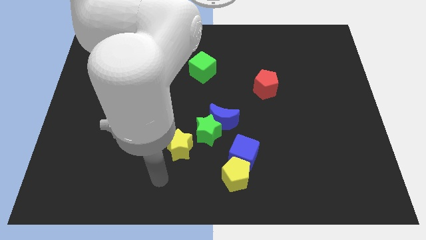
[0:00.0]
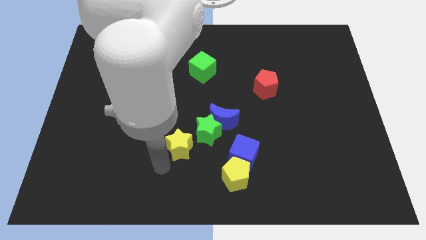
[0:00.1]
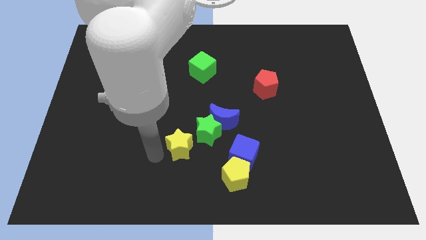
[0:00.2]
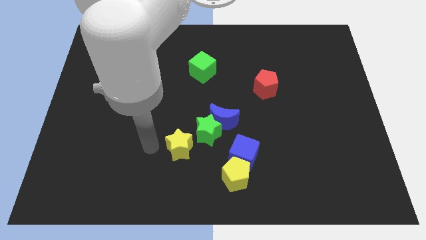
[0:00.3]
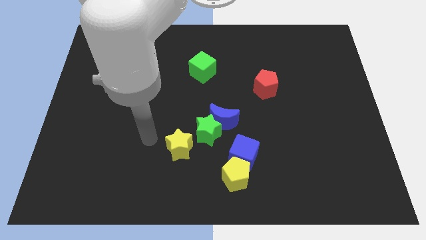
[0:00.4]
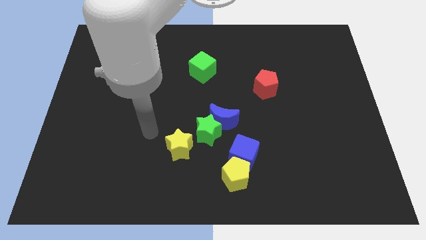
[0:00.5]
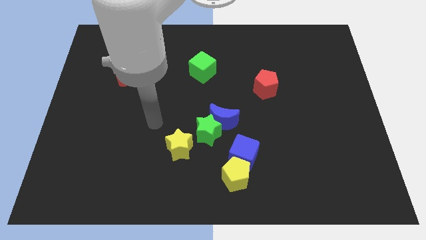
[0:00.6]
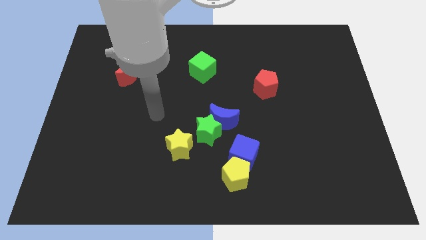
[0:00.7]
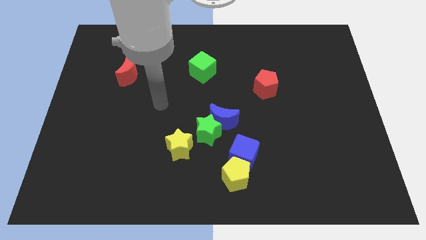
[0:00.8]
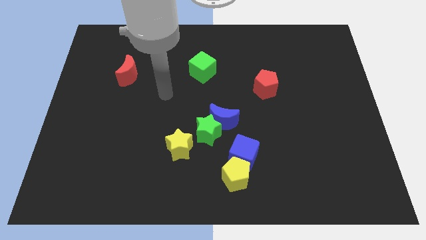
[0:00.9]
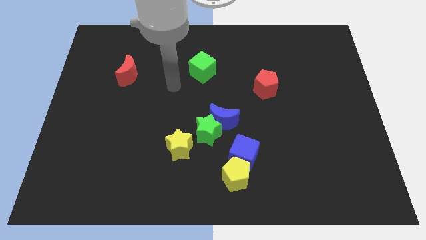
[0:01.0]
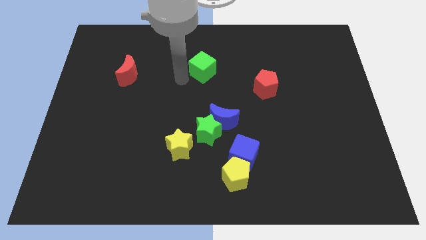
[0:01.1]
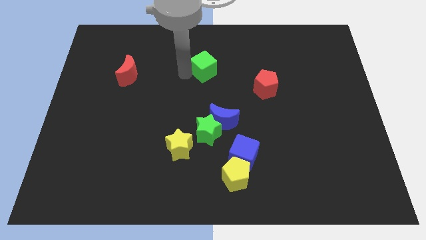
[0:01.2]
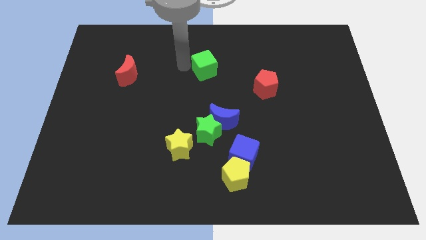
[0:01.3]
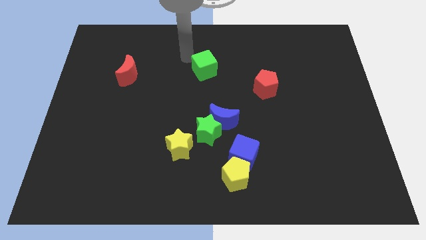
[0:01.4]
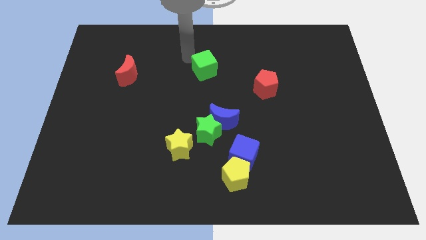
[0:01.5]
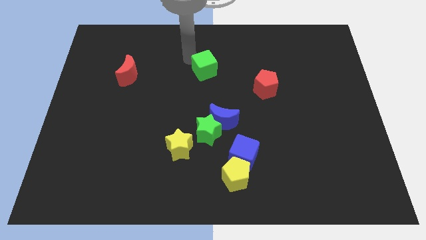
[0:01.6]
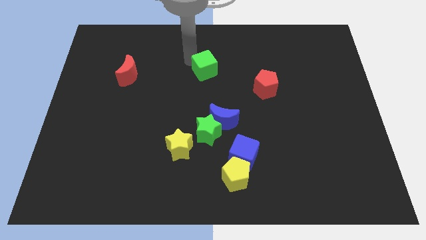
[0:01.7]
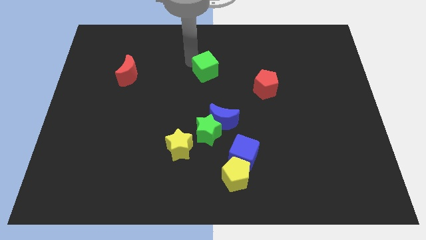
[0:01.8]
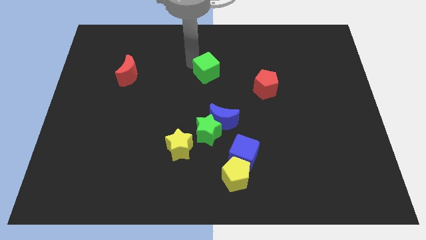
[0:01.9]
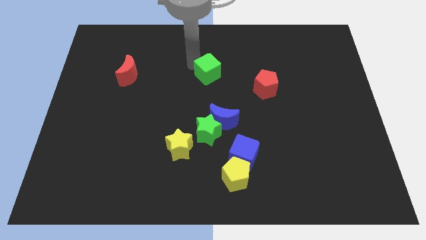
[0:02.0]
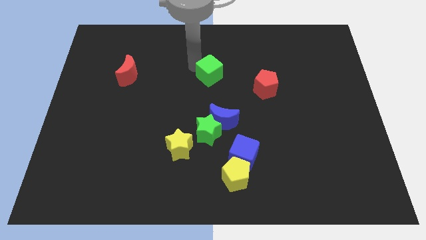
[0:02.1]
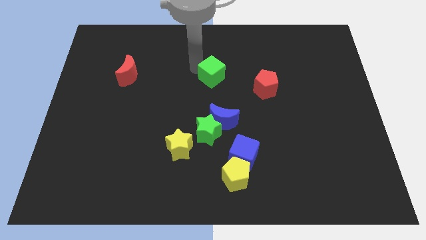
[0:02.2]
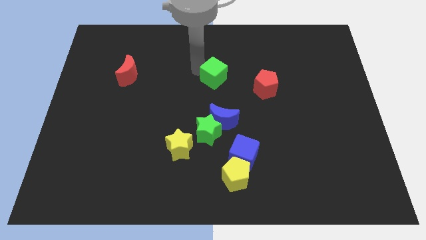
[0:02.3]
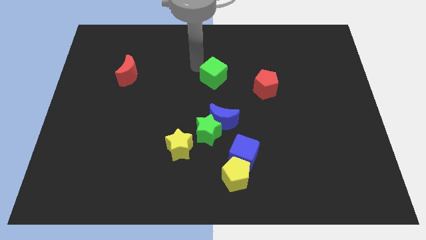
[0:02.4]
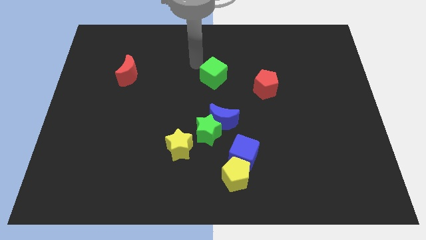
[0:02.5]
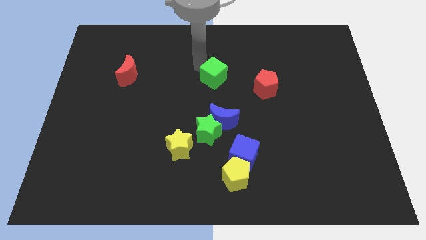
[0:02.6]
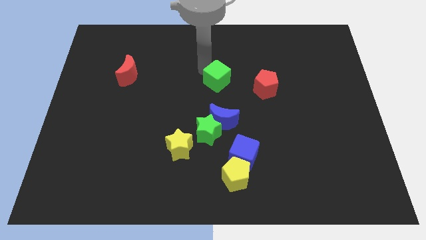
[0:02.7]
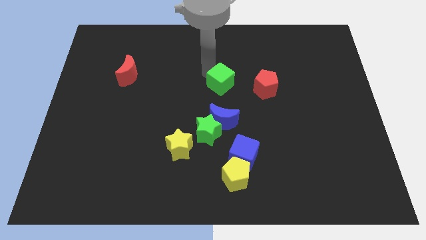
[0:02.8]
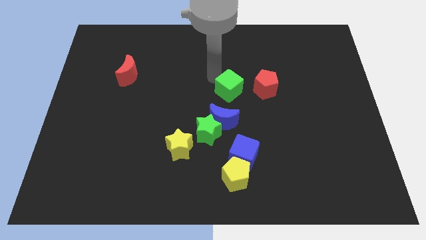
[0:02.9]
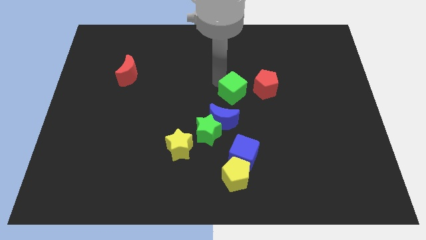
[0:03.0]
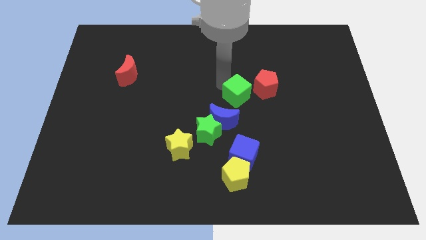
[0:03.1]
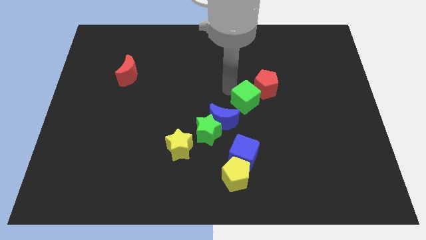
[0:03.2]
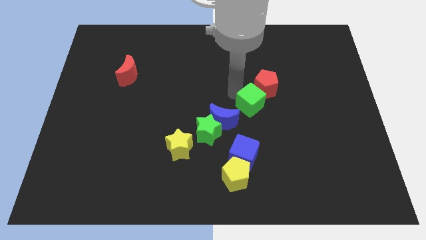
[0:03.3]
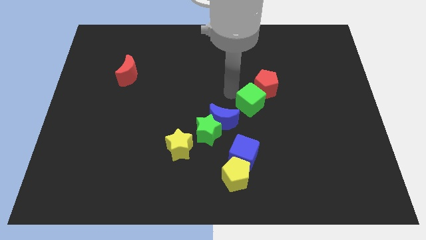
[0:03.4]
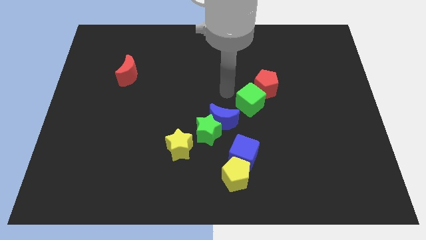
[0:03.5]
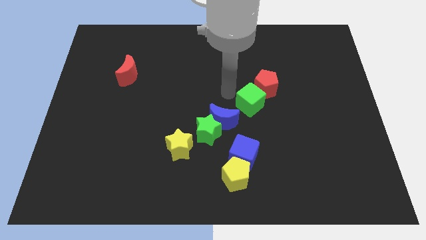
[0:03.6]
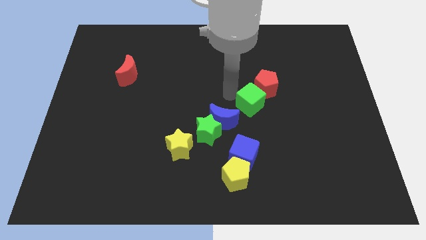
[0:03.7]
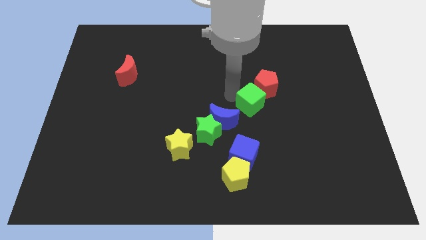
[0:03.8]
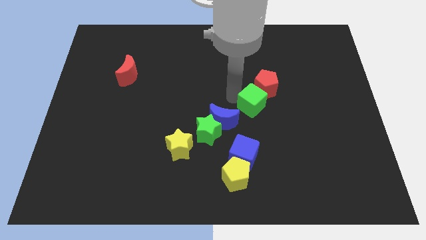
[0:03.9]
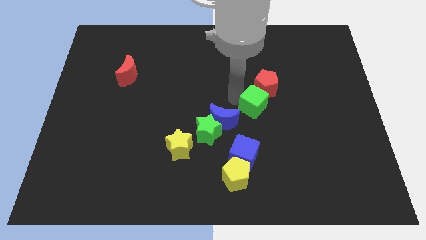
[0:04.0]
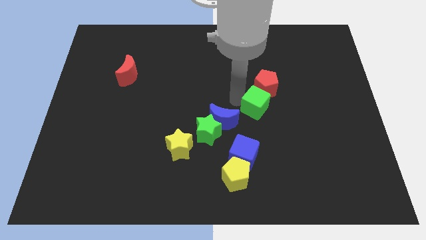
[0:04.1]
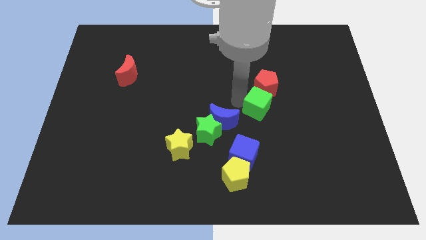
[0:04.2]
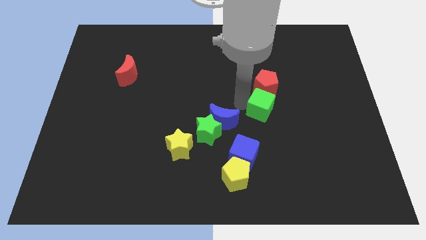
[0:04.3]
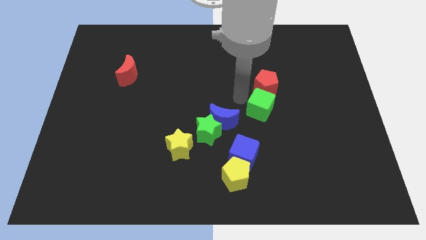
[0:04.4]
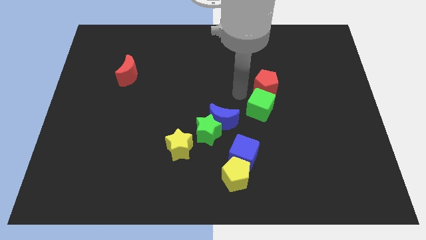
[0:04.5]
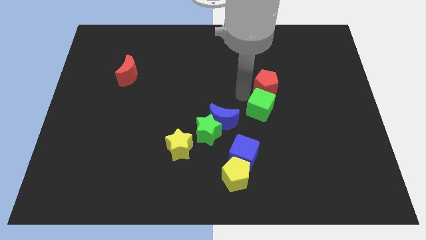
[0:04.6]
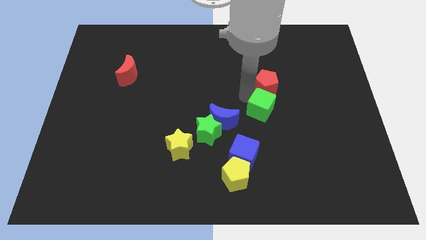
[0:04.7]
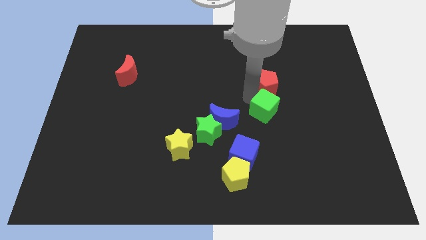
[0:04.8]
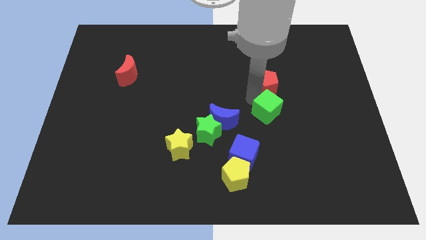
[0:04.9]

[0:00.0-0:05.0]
push the green cube diagonally down and to the right

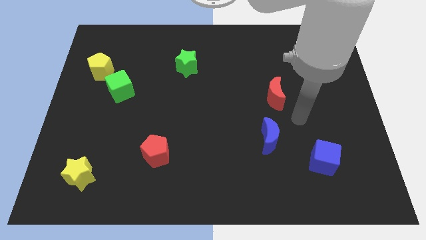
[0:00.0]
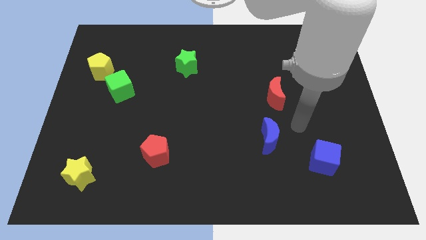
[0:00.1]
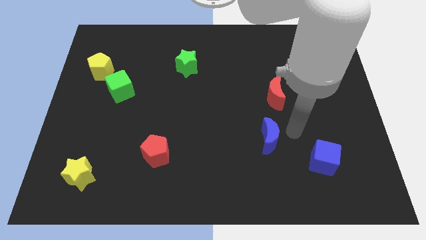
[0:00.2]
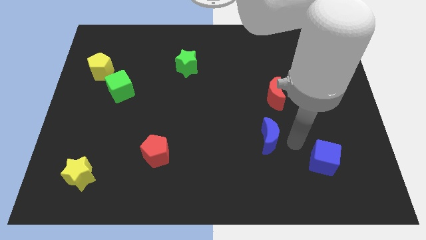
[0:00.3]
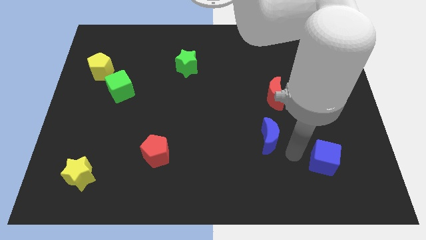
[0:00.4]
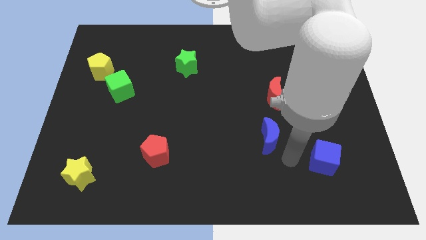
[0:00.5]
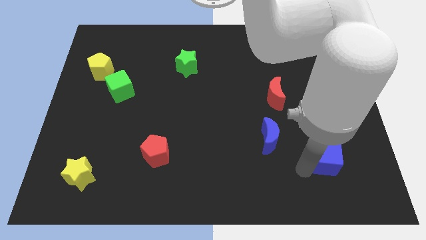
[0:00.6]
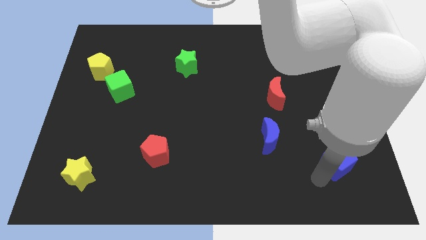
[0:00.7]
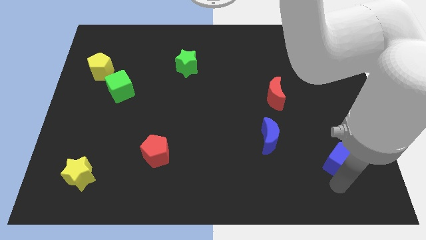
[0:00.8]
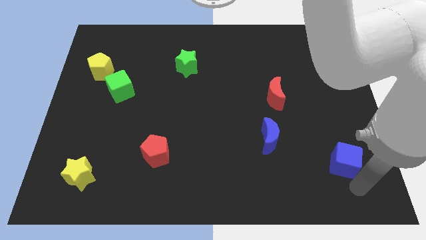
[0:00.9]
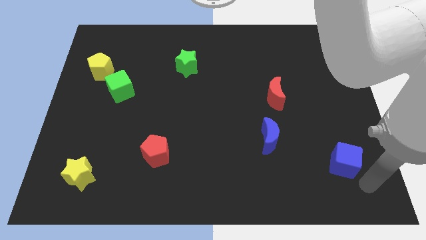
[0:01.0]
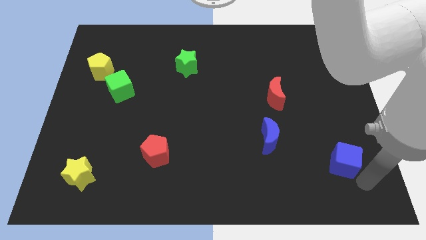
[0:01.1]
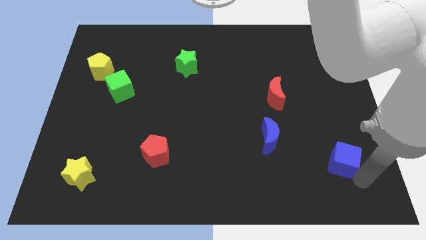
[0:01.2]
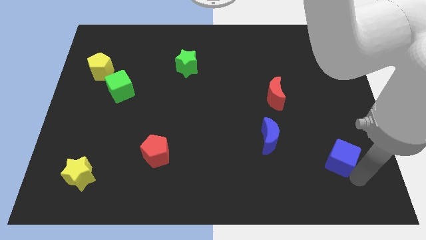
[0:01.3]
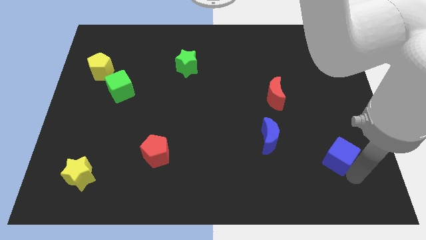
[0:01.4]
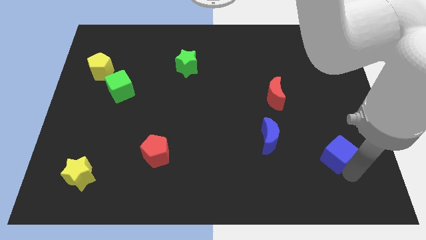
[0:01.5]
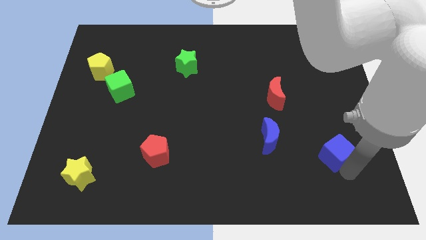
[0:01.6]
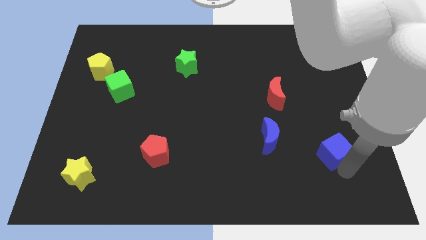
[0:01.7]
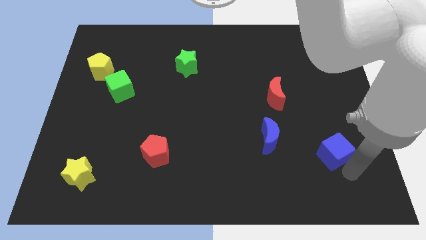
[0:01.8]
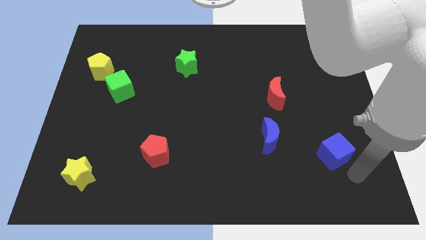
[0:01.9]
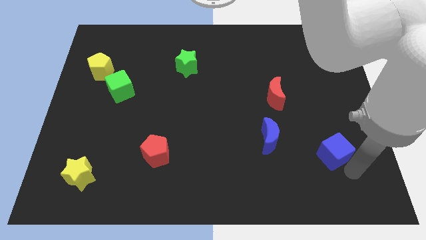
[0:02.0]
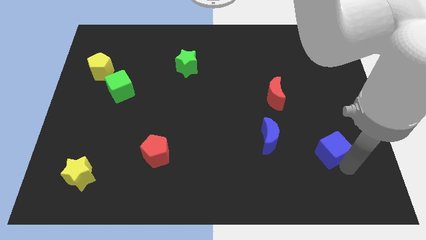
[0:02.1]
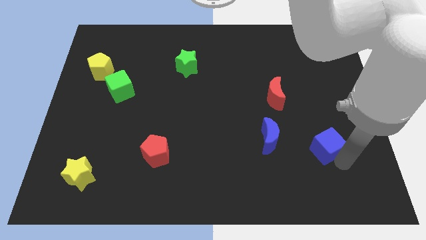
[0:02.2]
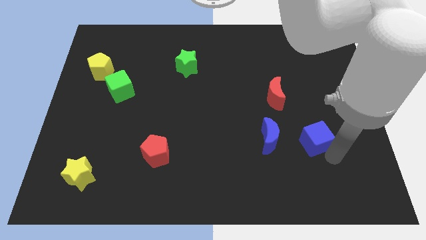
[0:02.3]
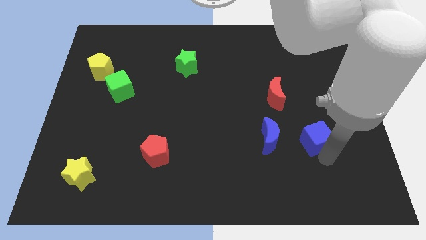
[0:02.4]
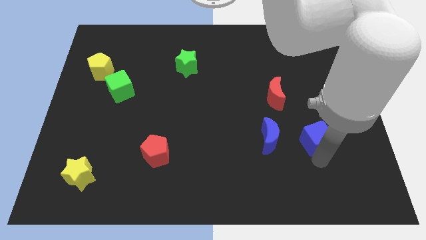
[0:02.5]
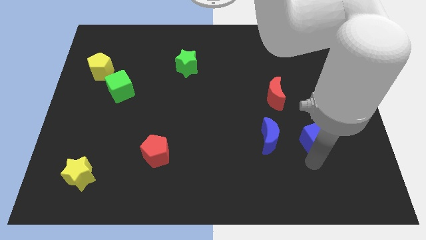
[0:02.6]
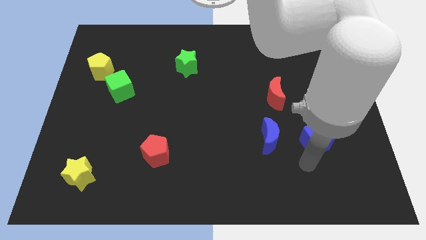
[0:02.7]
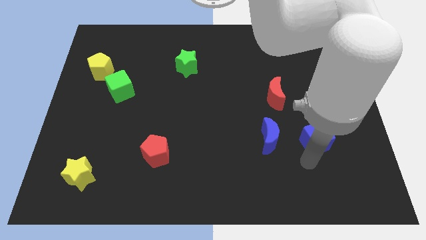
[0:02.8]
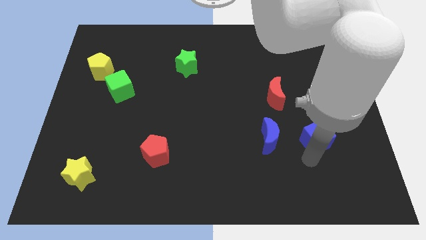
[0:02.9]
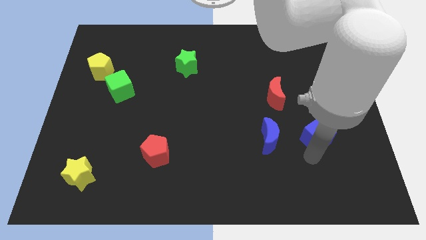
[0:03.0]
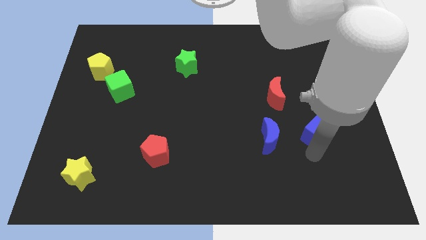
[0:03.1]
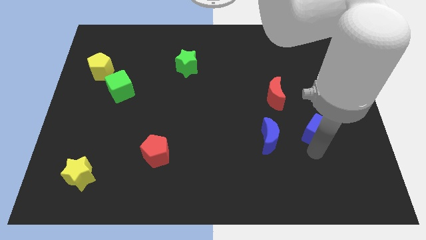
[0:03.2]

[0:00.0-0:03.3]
slightly slide the blue cube up
